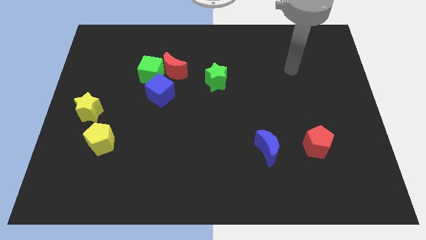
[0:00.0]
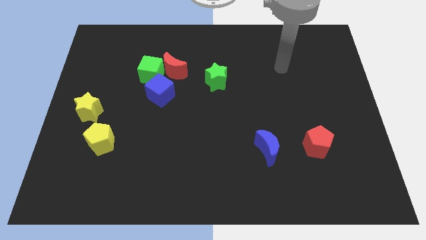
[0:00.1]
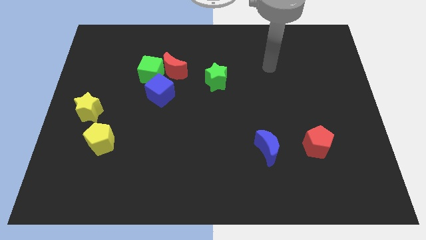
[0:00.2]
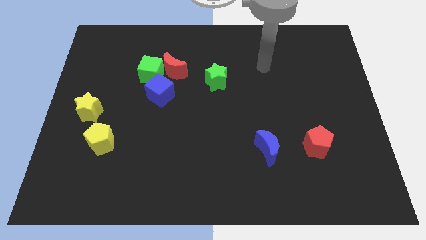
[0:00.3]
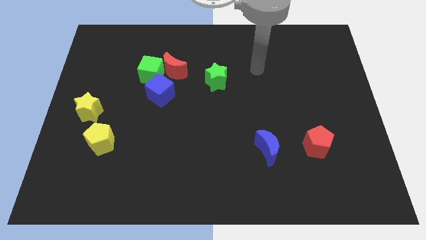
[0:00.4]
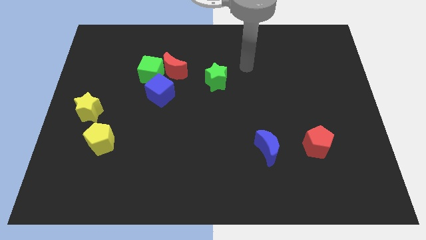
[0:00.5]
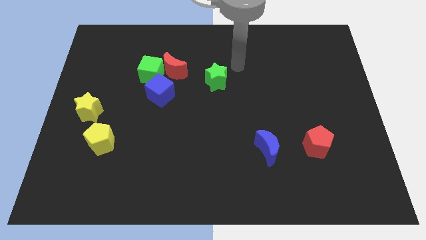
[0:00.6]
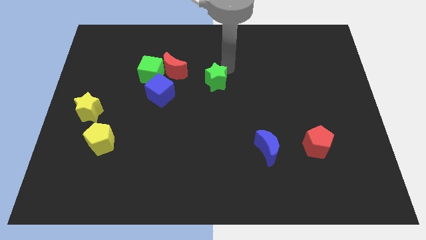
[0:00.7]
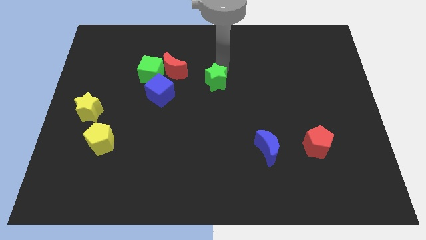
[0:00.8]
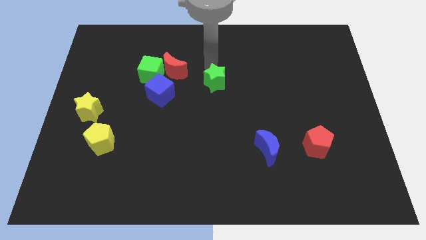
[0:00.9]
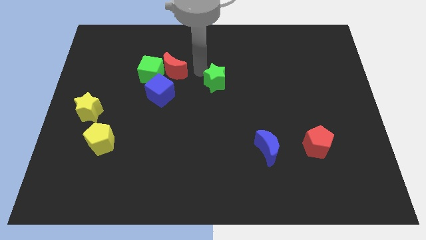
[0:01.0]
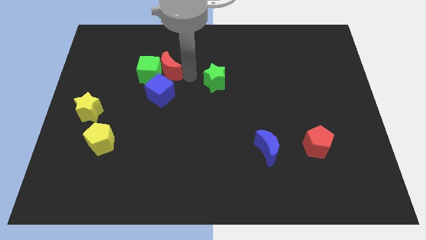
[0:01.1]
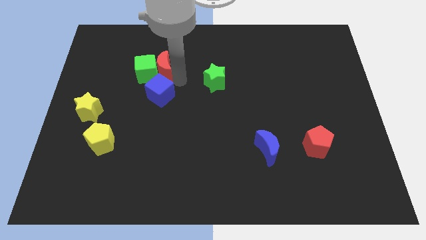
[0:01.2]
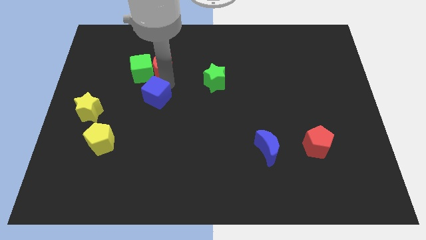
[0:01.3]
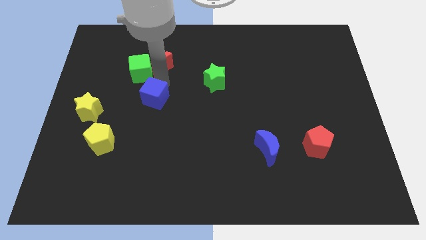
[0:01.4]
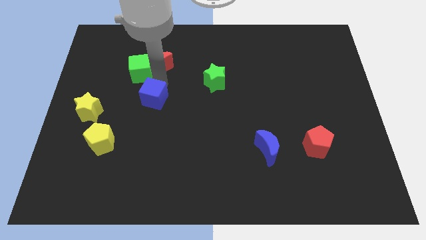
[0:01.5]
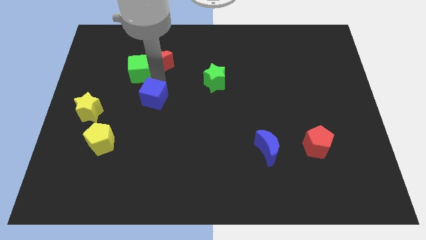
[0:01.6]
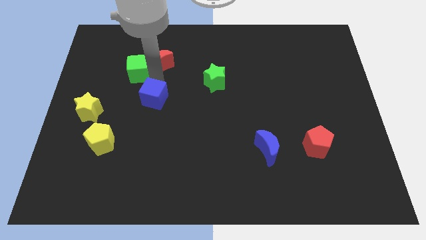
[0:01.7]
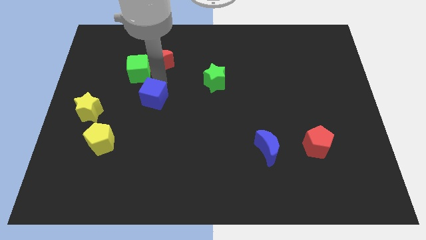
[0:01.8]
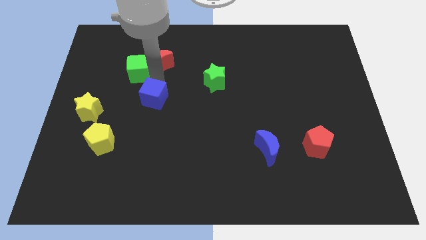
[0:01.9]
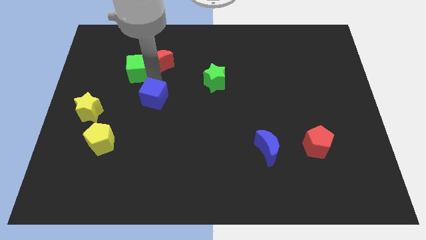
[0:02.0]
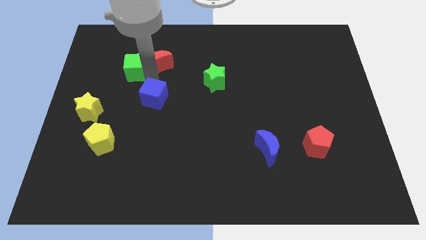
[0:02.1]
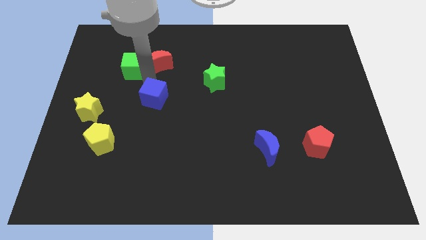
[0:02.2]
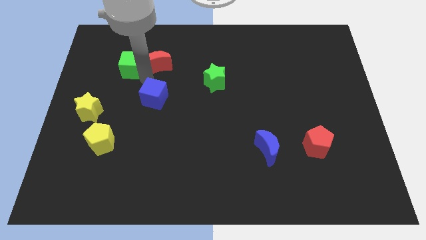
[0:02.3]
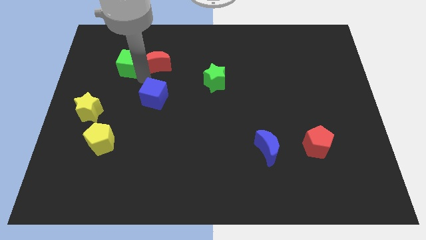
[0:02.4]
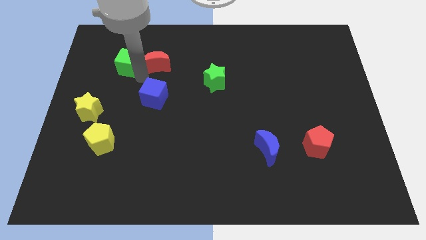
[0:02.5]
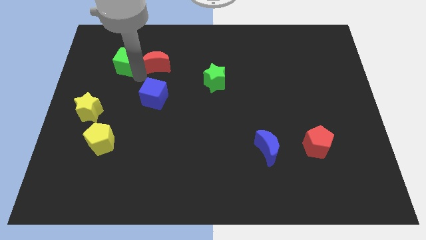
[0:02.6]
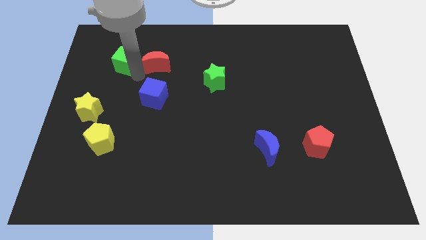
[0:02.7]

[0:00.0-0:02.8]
move the green cube away from the red moon and blue cube

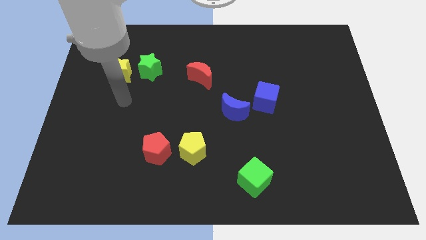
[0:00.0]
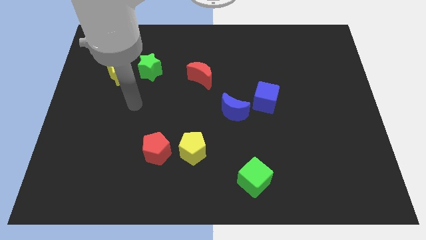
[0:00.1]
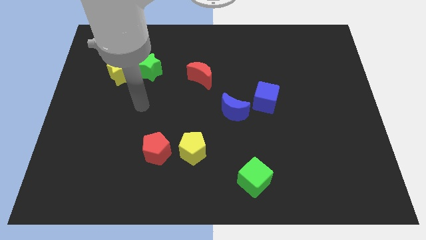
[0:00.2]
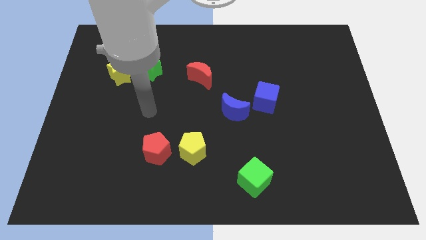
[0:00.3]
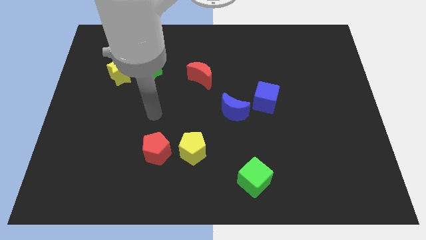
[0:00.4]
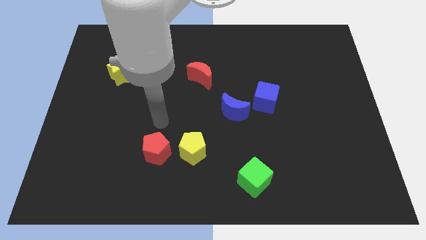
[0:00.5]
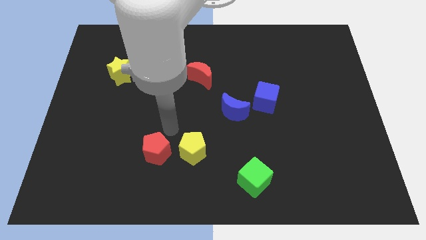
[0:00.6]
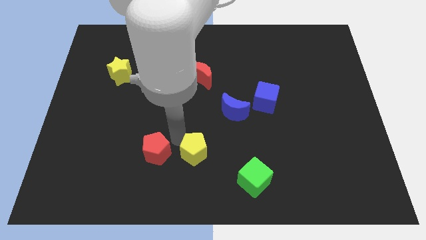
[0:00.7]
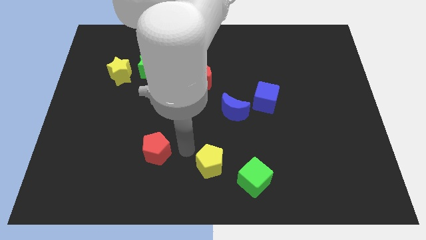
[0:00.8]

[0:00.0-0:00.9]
move the red pentagon away from the yellow pentagon

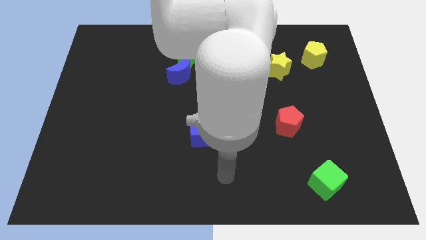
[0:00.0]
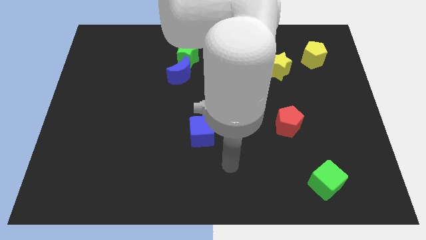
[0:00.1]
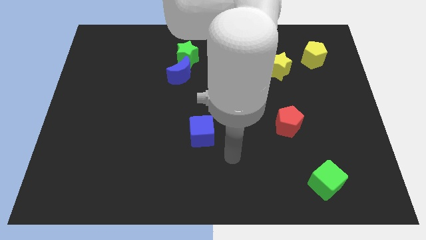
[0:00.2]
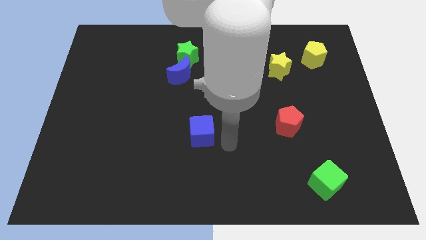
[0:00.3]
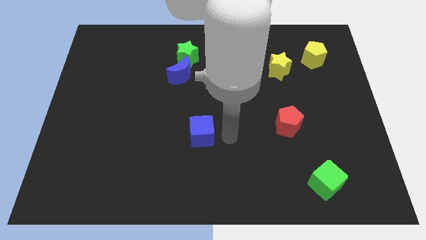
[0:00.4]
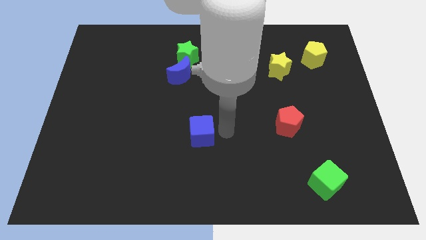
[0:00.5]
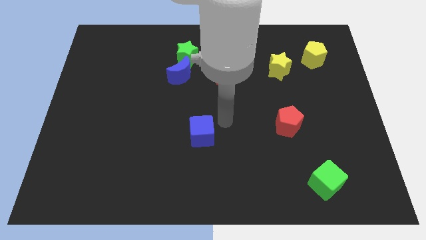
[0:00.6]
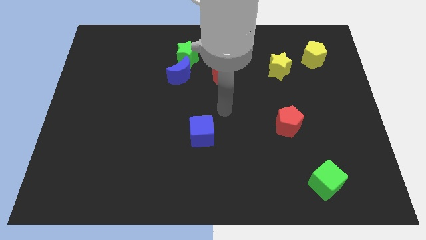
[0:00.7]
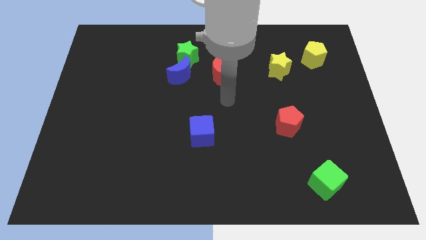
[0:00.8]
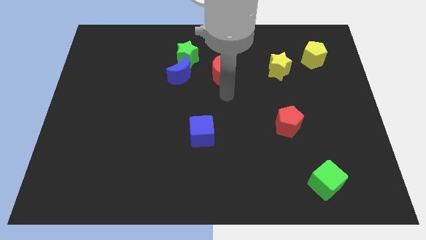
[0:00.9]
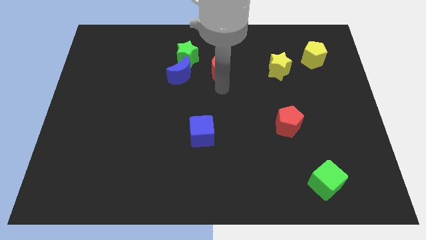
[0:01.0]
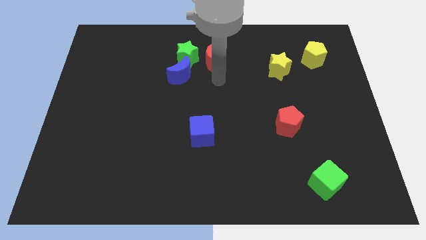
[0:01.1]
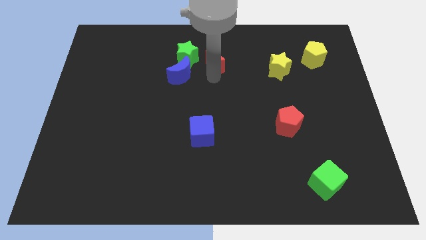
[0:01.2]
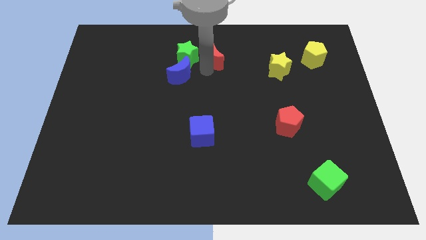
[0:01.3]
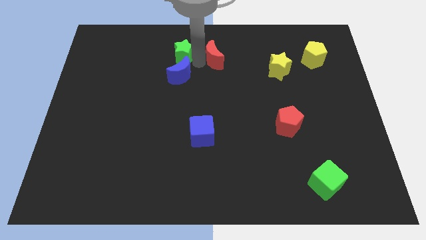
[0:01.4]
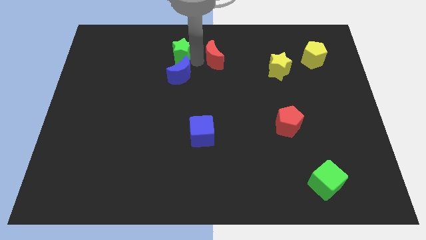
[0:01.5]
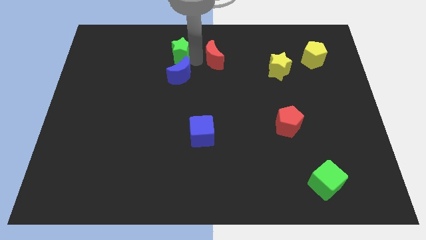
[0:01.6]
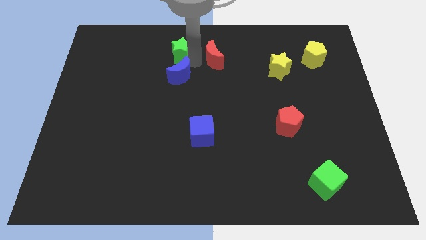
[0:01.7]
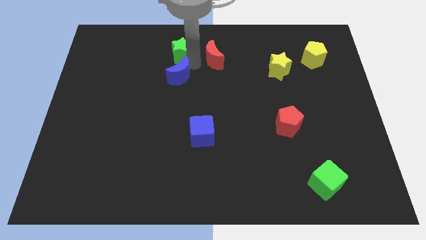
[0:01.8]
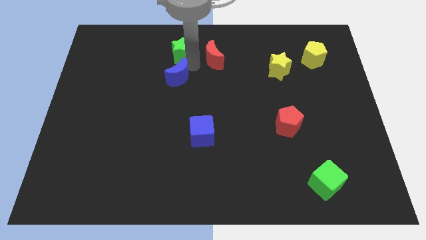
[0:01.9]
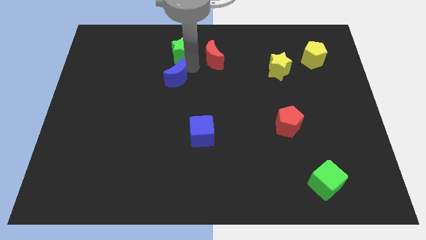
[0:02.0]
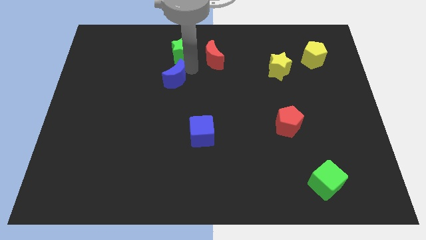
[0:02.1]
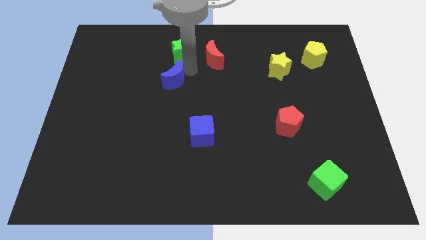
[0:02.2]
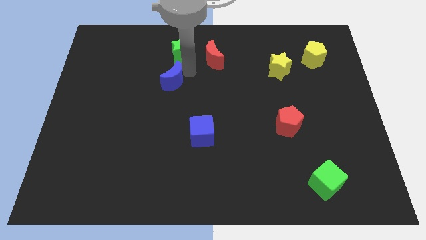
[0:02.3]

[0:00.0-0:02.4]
move the blue moon away from the green star and red moon

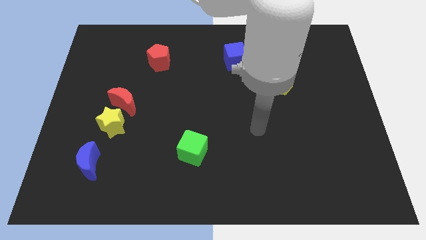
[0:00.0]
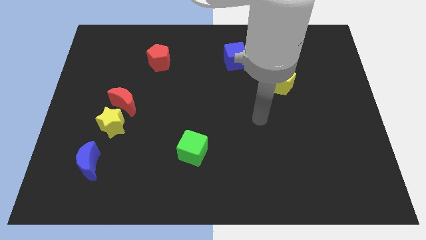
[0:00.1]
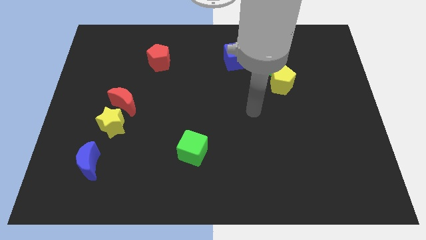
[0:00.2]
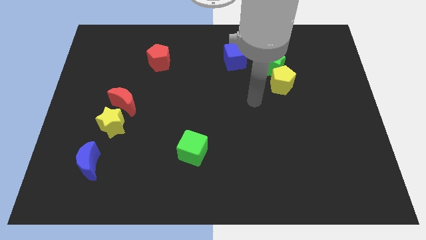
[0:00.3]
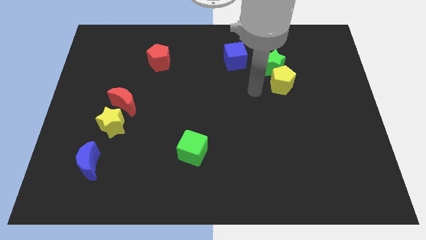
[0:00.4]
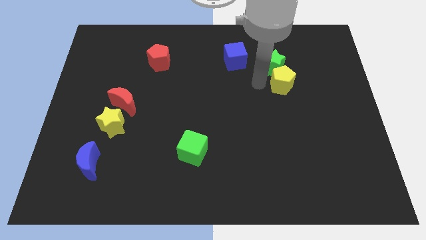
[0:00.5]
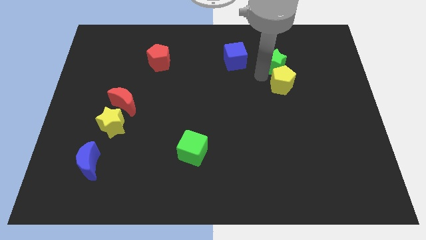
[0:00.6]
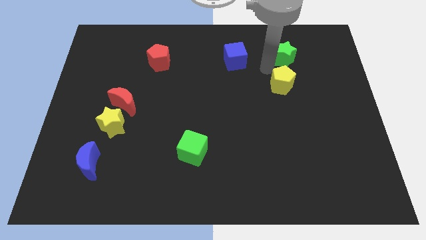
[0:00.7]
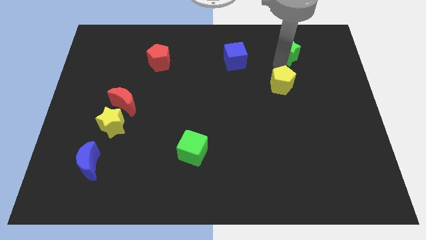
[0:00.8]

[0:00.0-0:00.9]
separate the yellow pentagon from the green star

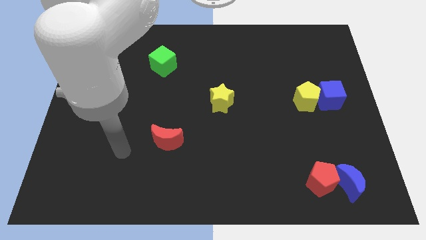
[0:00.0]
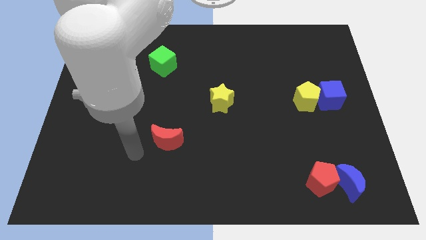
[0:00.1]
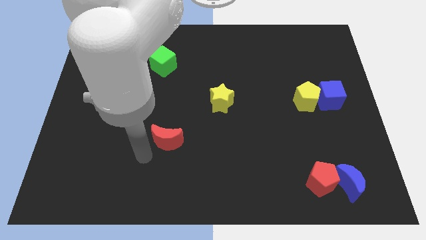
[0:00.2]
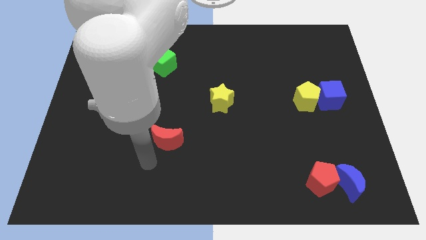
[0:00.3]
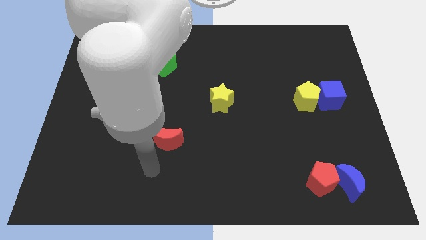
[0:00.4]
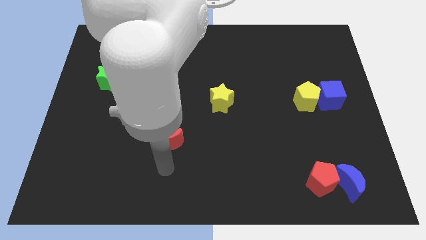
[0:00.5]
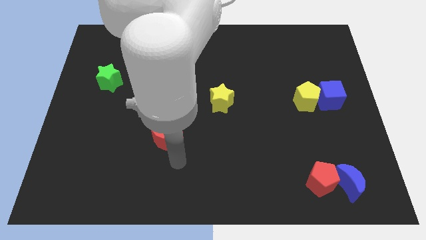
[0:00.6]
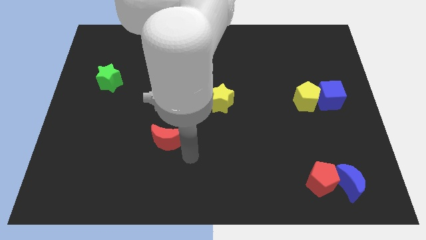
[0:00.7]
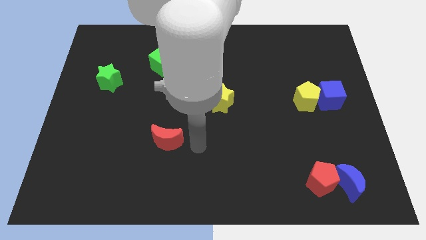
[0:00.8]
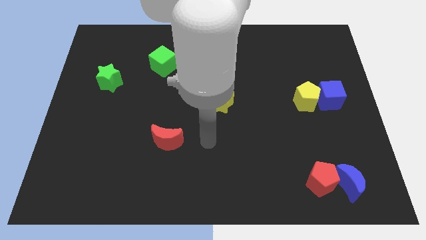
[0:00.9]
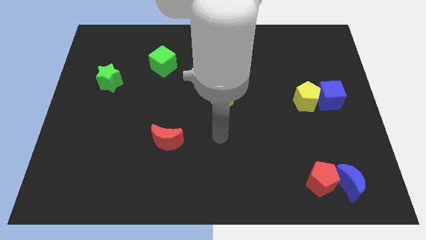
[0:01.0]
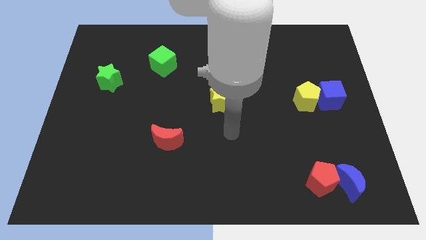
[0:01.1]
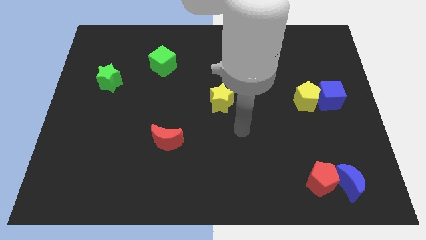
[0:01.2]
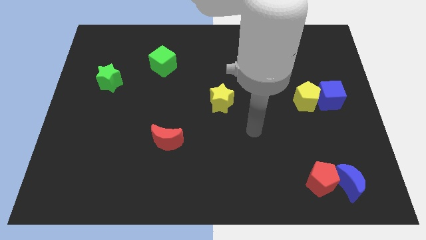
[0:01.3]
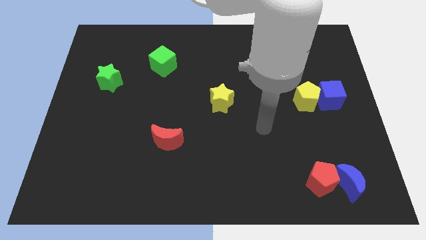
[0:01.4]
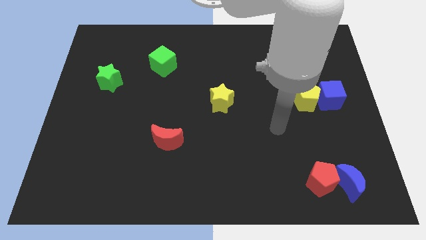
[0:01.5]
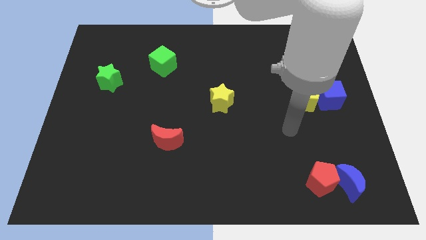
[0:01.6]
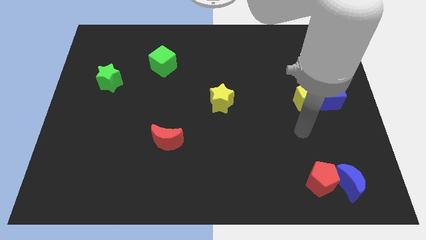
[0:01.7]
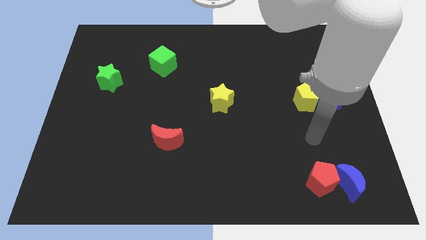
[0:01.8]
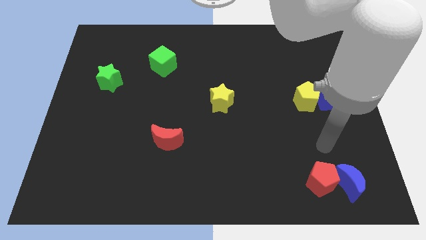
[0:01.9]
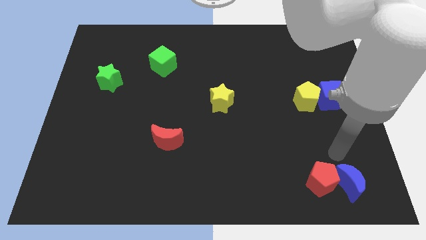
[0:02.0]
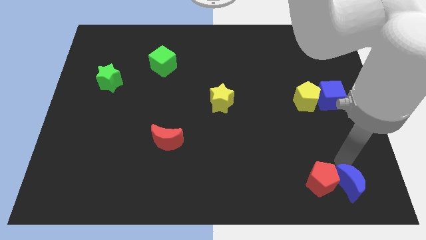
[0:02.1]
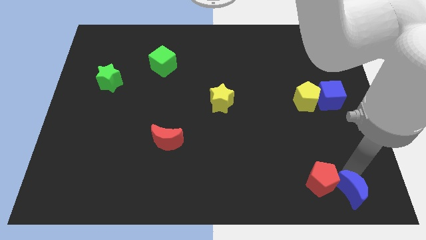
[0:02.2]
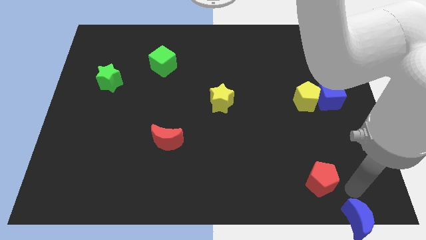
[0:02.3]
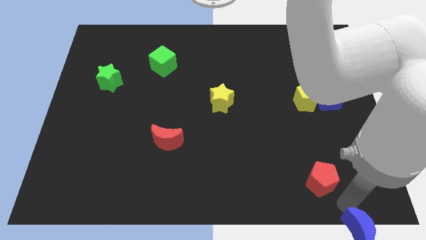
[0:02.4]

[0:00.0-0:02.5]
separate the red pentagon from the blue moon
